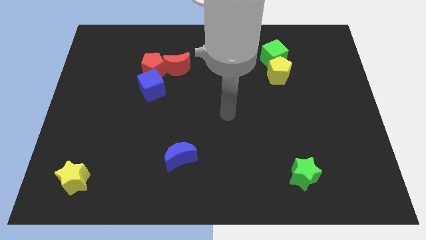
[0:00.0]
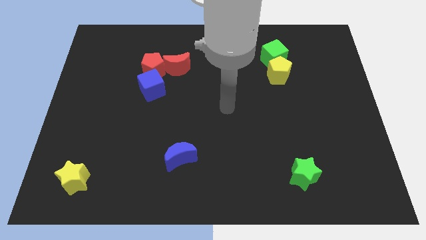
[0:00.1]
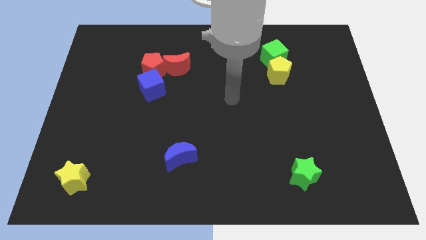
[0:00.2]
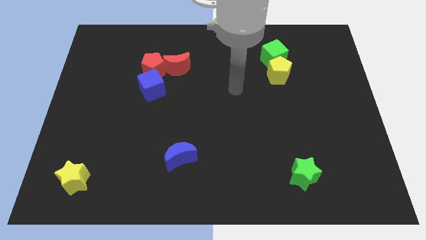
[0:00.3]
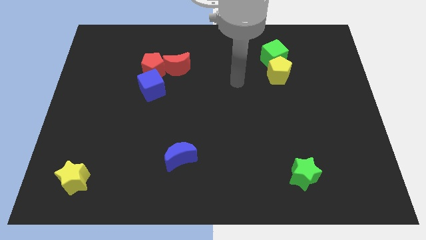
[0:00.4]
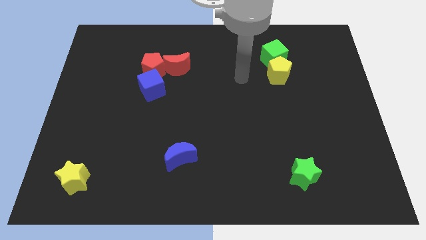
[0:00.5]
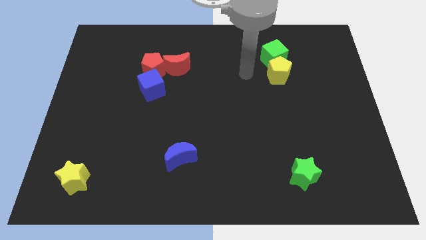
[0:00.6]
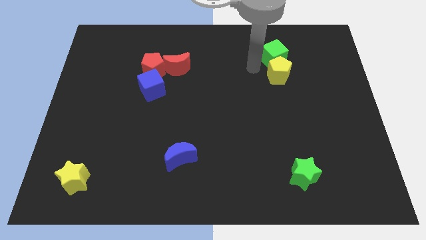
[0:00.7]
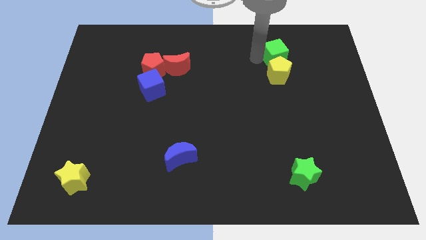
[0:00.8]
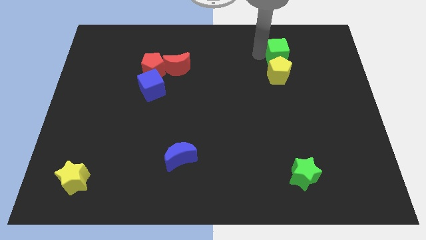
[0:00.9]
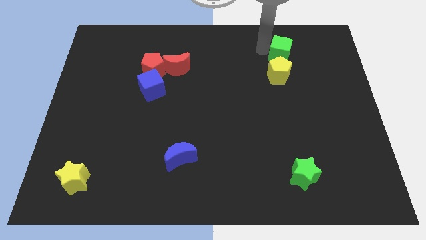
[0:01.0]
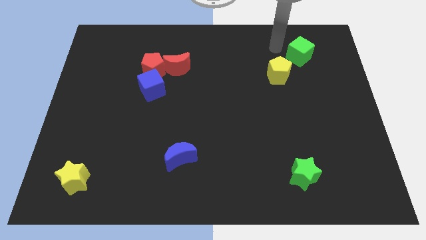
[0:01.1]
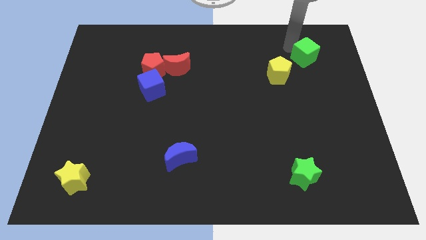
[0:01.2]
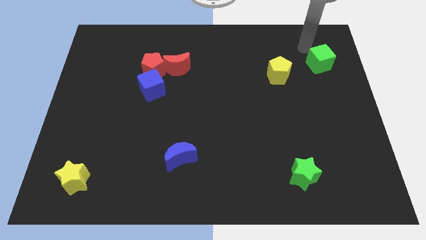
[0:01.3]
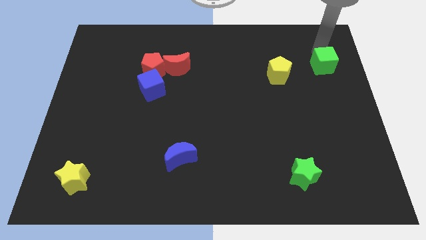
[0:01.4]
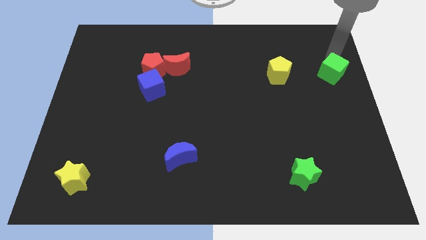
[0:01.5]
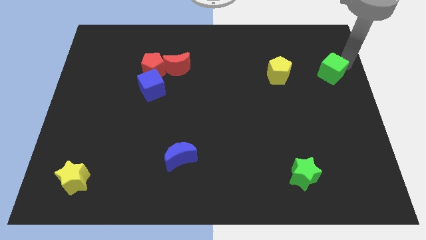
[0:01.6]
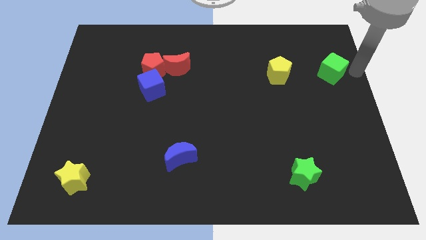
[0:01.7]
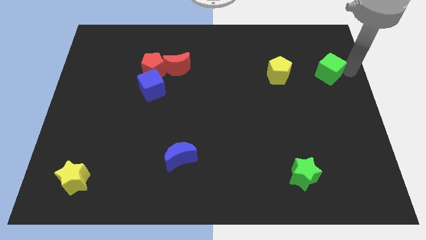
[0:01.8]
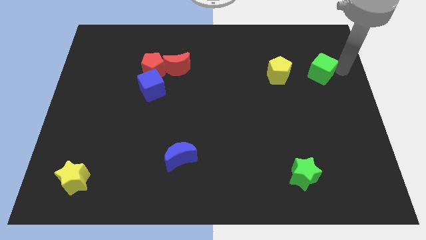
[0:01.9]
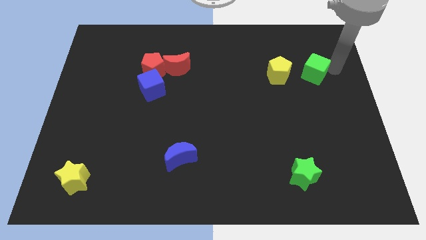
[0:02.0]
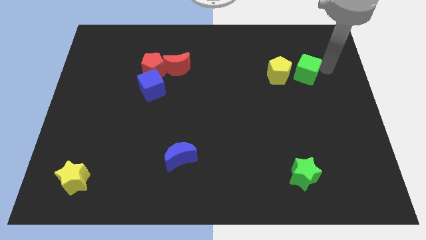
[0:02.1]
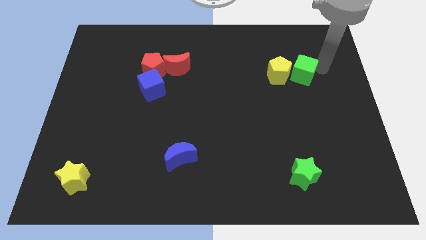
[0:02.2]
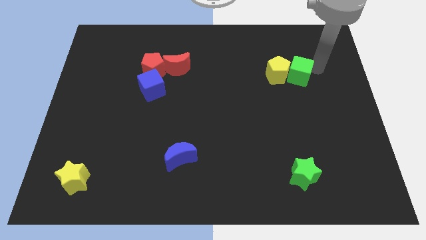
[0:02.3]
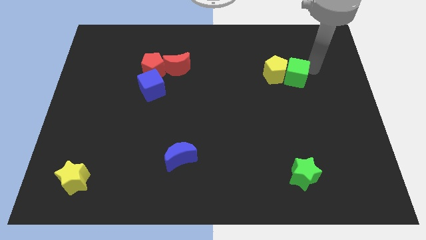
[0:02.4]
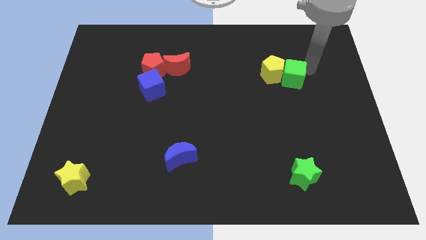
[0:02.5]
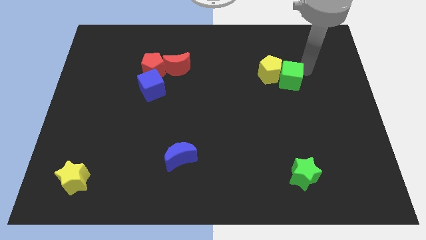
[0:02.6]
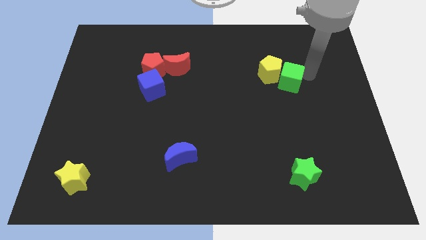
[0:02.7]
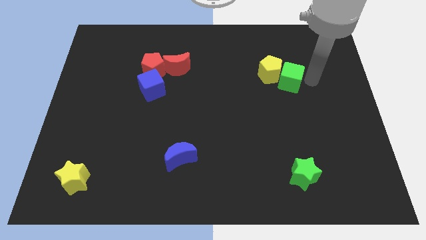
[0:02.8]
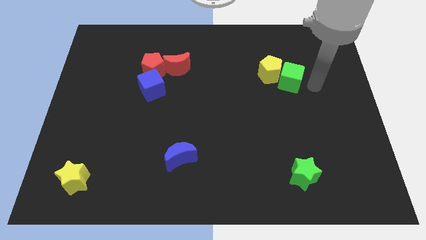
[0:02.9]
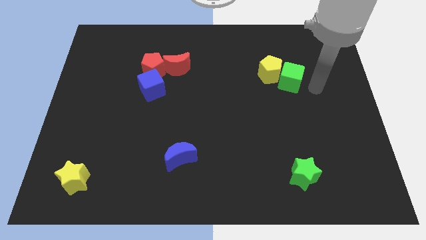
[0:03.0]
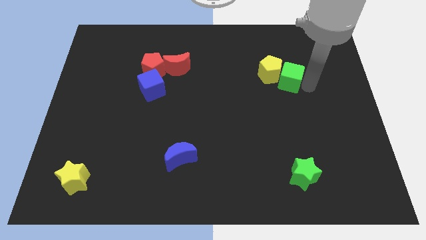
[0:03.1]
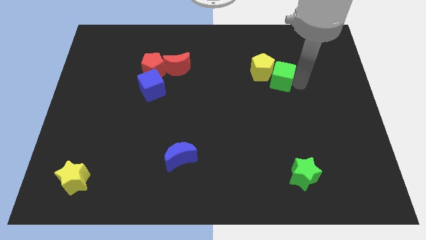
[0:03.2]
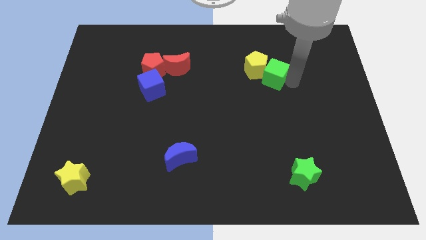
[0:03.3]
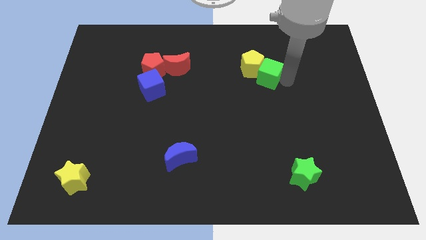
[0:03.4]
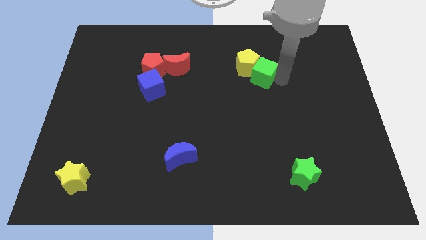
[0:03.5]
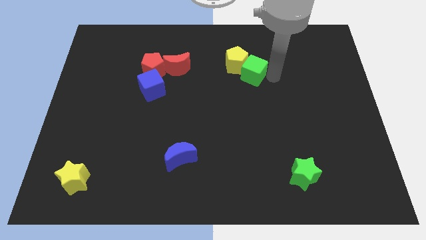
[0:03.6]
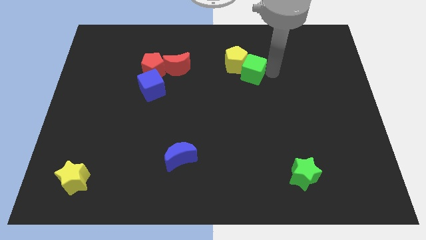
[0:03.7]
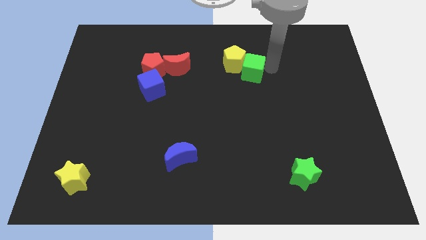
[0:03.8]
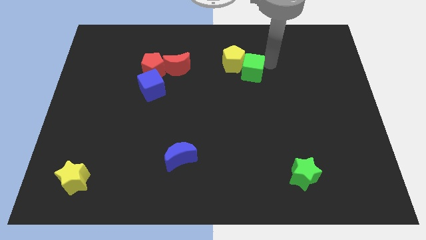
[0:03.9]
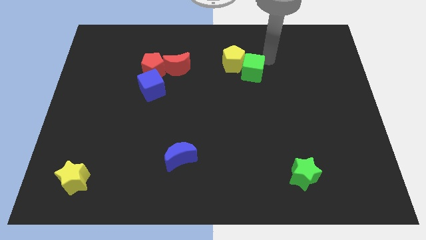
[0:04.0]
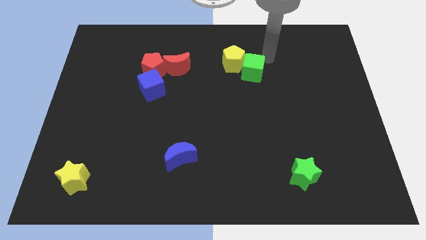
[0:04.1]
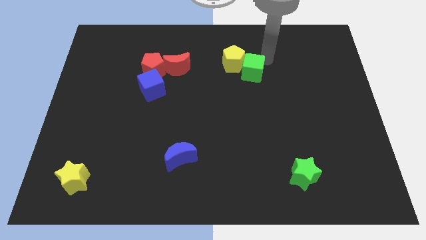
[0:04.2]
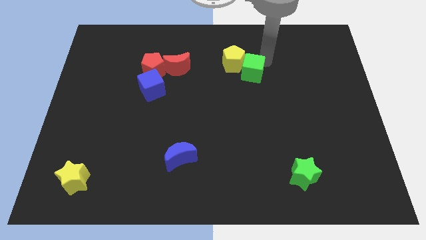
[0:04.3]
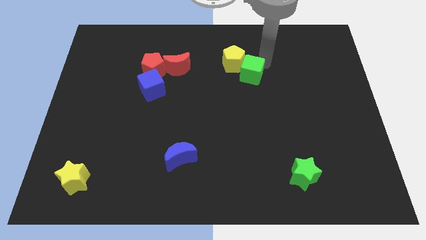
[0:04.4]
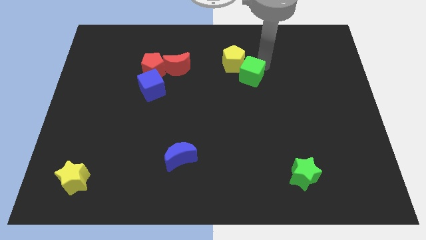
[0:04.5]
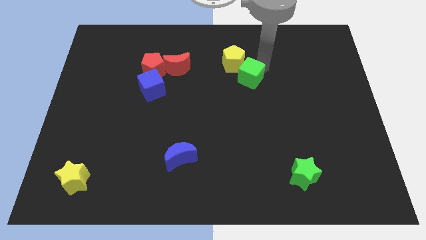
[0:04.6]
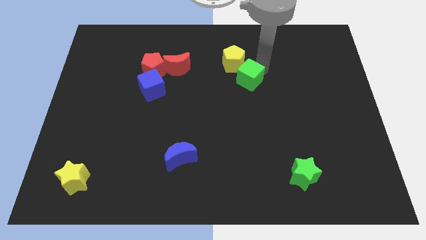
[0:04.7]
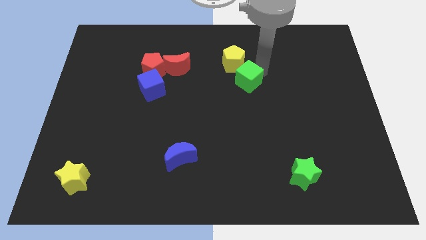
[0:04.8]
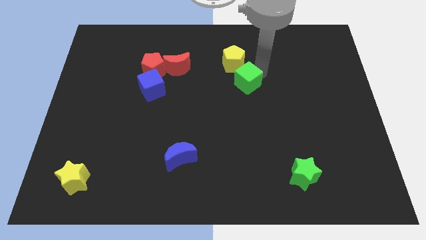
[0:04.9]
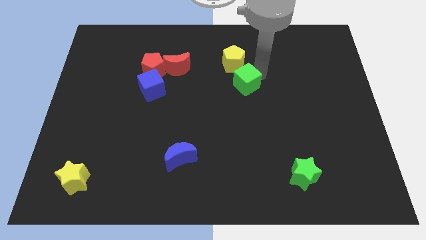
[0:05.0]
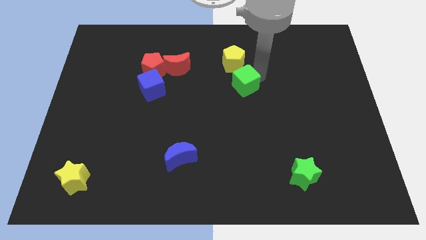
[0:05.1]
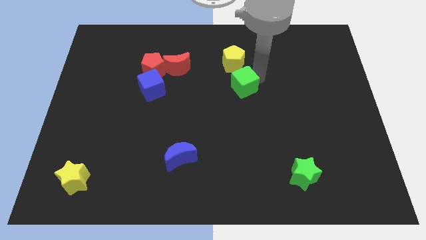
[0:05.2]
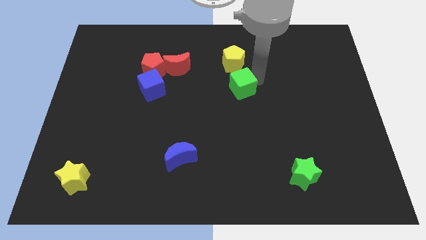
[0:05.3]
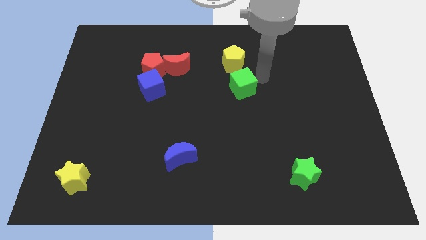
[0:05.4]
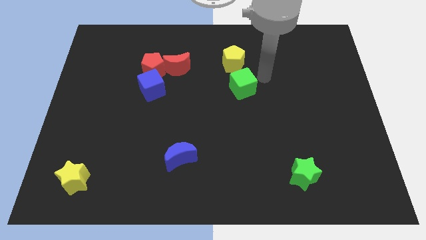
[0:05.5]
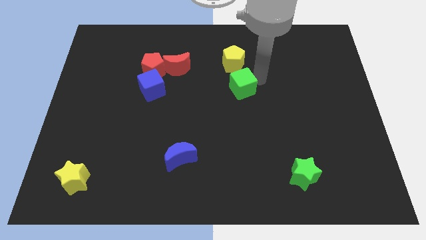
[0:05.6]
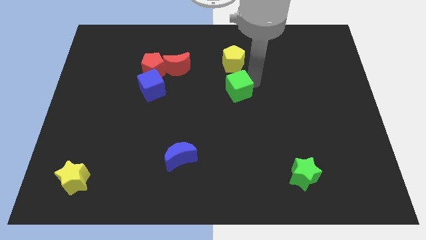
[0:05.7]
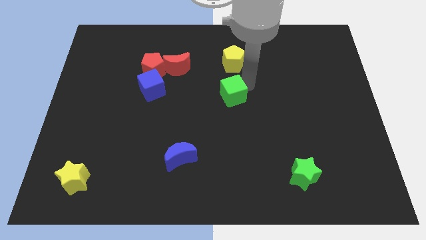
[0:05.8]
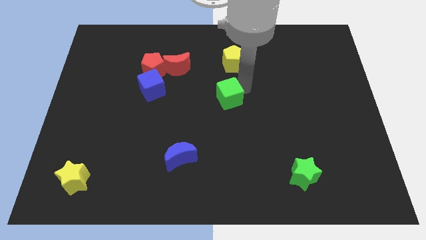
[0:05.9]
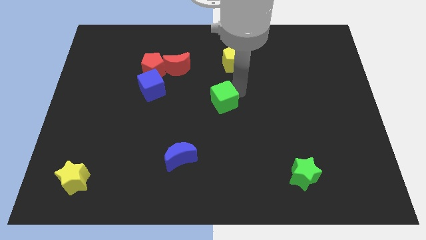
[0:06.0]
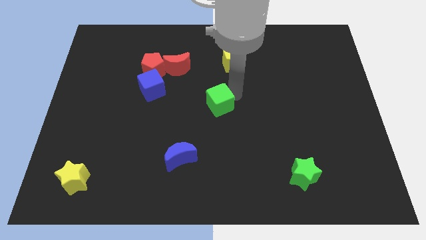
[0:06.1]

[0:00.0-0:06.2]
slide the green cube downwards and left

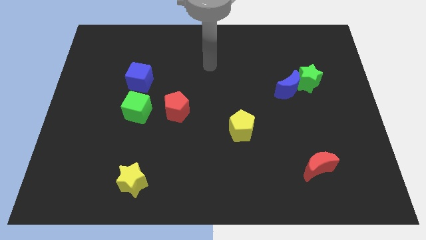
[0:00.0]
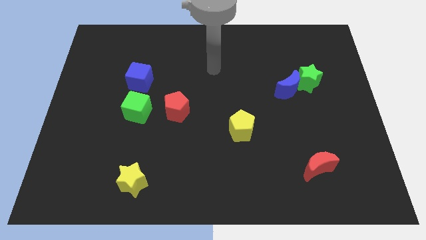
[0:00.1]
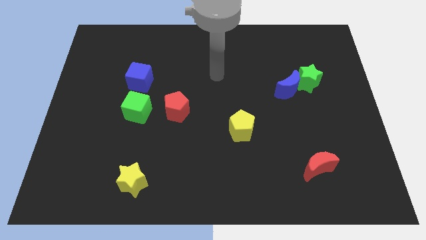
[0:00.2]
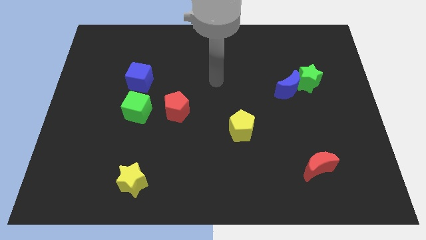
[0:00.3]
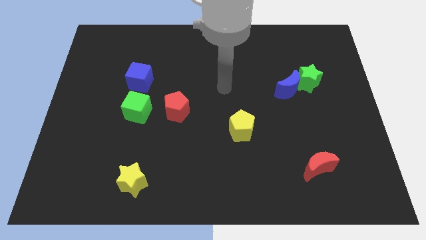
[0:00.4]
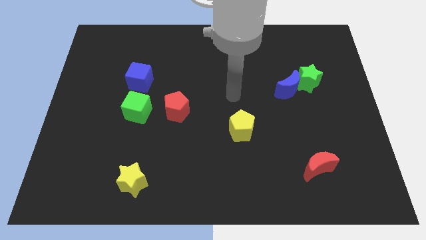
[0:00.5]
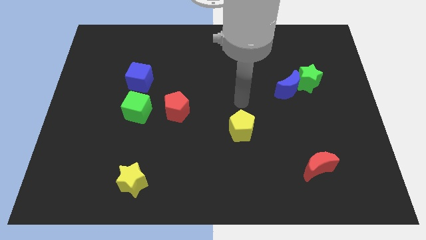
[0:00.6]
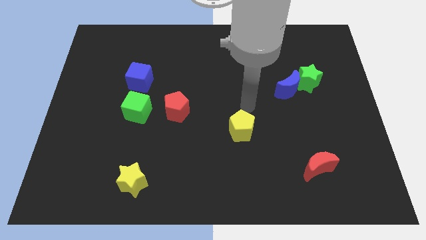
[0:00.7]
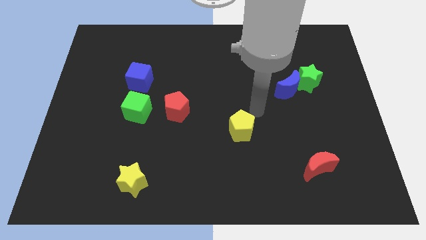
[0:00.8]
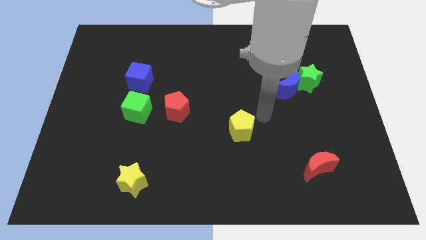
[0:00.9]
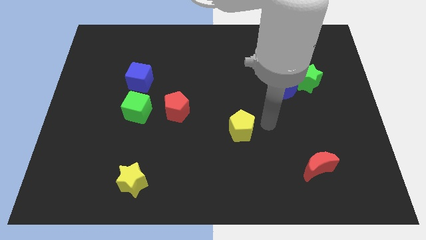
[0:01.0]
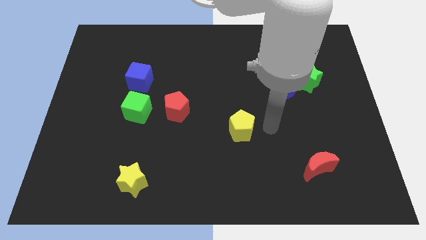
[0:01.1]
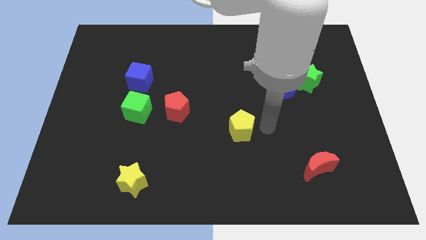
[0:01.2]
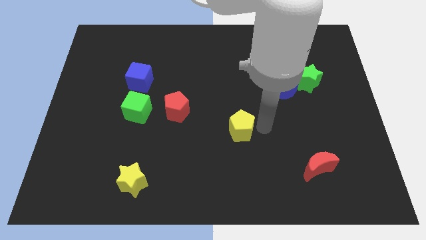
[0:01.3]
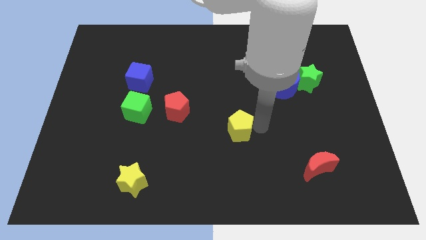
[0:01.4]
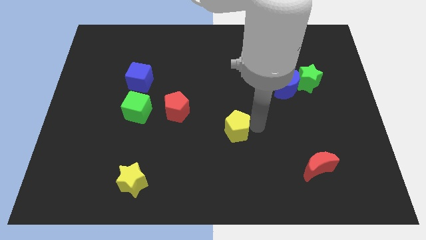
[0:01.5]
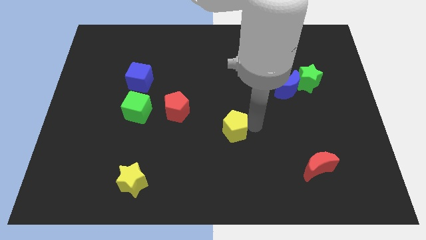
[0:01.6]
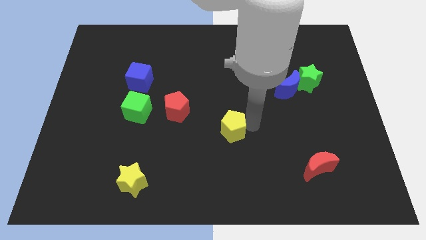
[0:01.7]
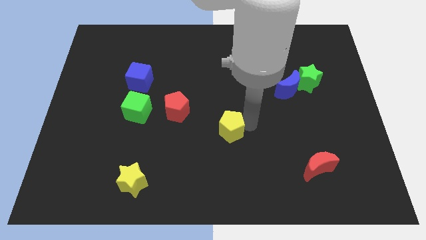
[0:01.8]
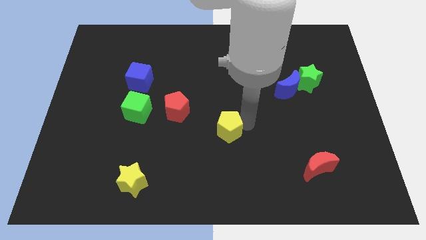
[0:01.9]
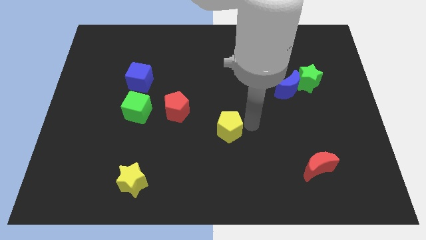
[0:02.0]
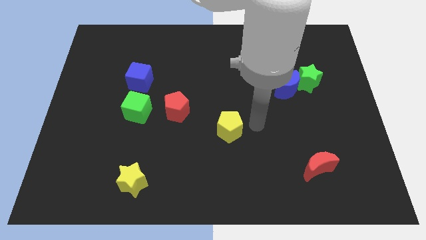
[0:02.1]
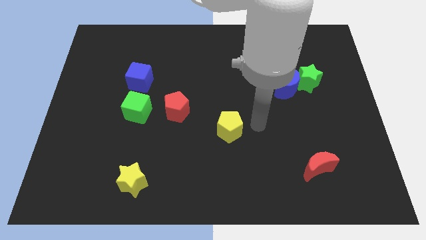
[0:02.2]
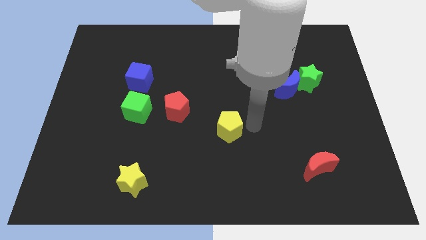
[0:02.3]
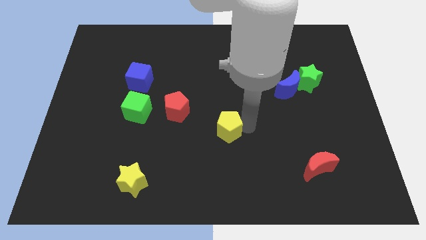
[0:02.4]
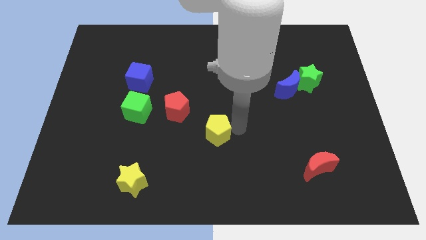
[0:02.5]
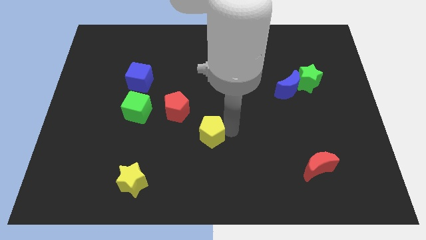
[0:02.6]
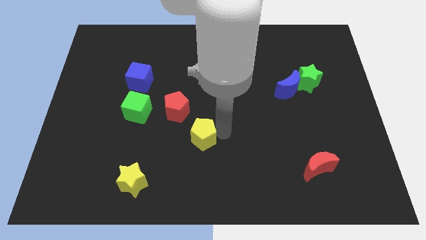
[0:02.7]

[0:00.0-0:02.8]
slightly push the yellow pentagon left
